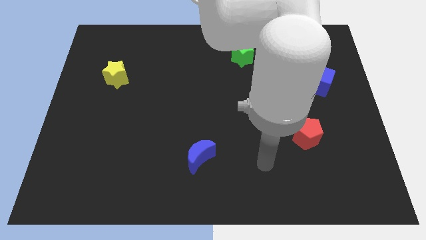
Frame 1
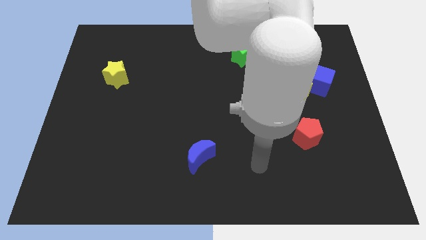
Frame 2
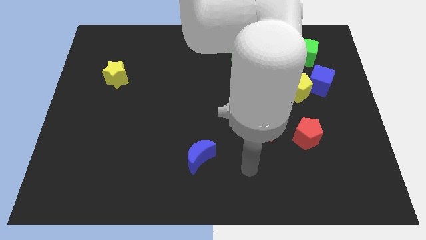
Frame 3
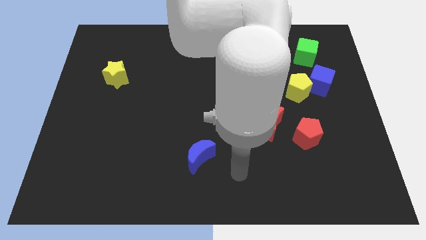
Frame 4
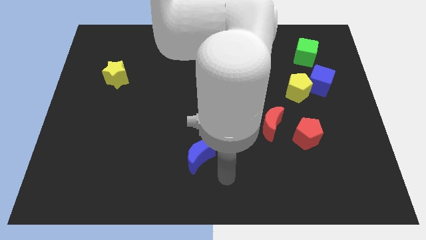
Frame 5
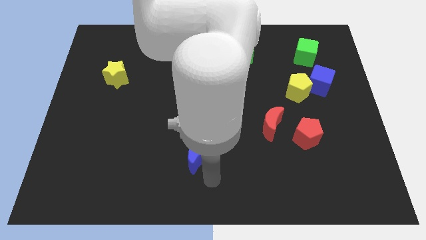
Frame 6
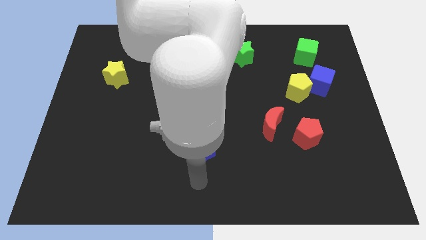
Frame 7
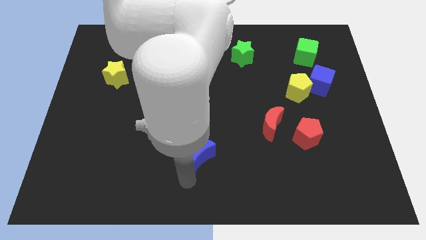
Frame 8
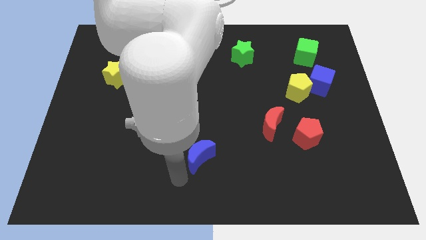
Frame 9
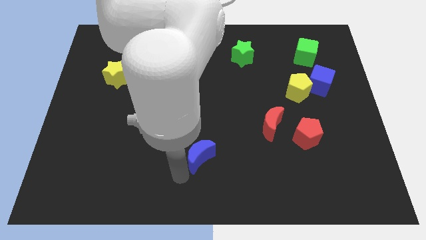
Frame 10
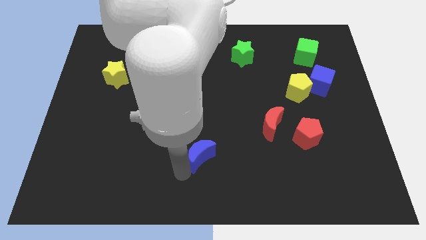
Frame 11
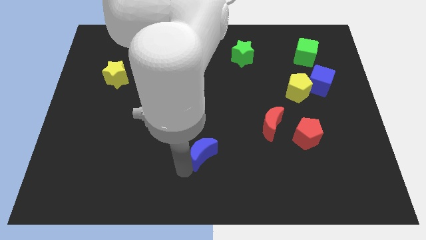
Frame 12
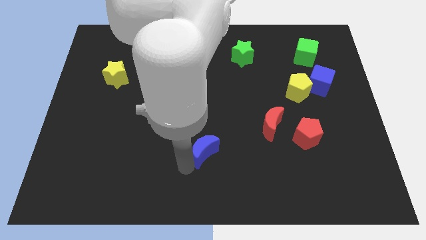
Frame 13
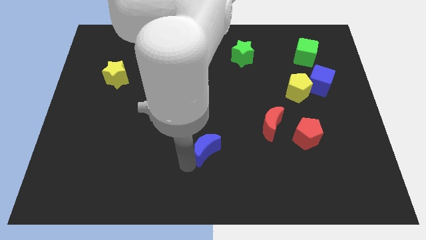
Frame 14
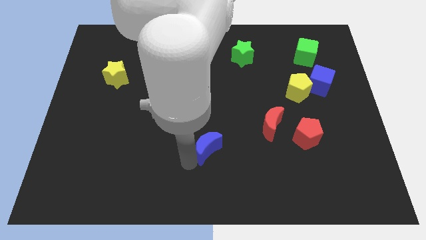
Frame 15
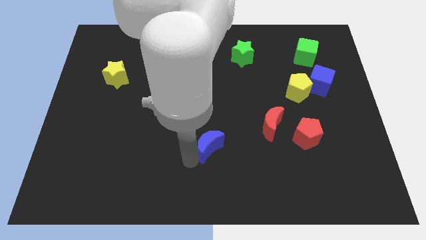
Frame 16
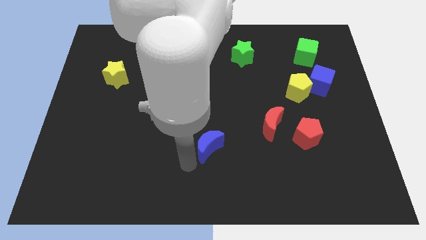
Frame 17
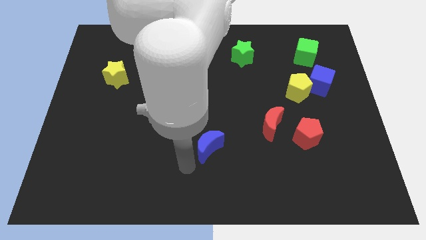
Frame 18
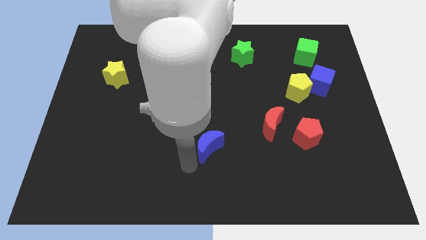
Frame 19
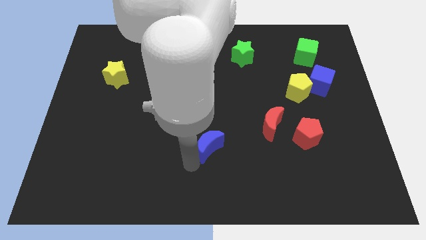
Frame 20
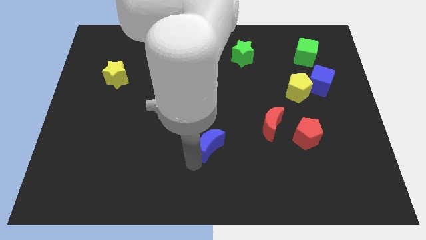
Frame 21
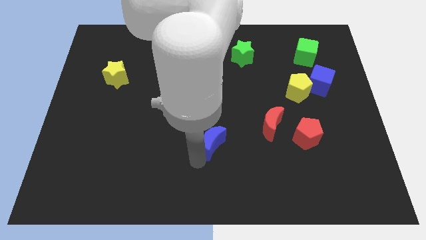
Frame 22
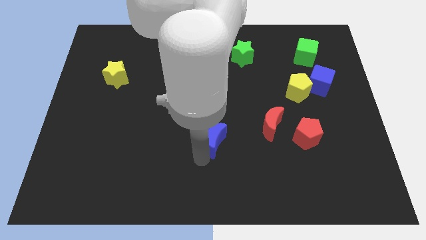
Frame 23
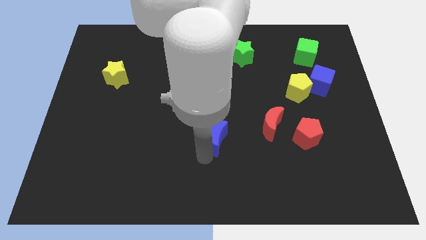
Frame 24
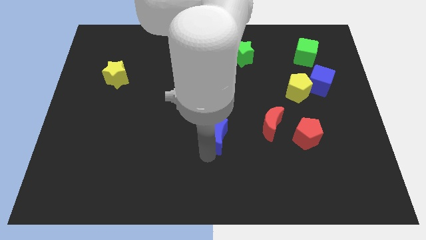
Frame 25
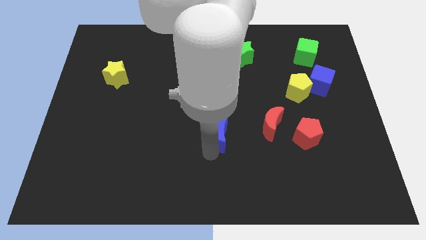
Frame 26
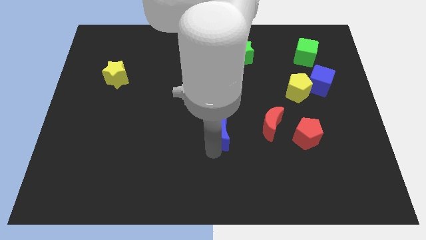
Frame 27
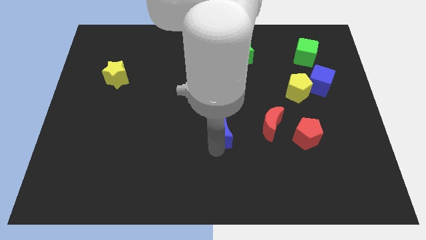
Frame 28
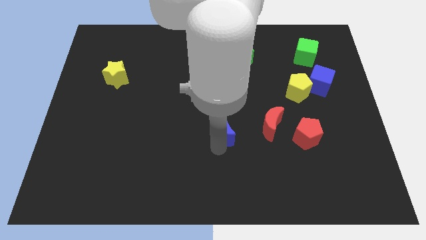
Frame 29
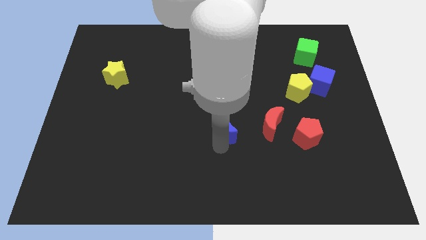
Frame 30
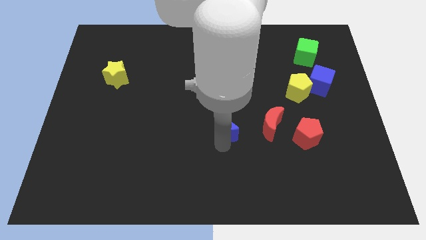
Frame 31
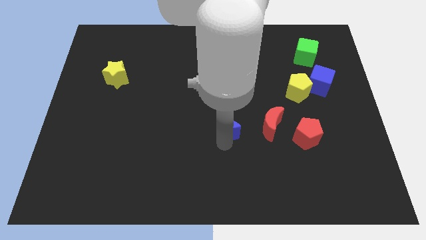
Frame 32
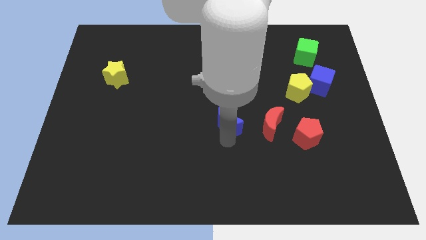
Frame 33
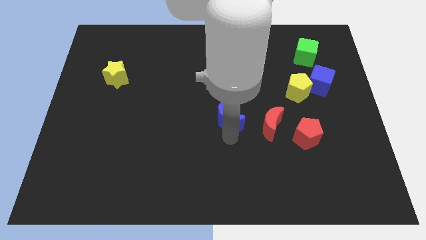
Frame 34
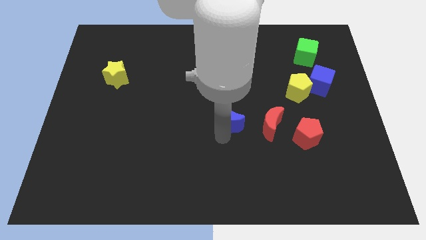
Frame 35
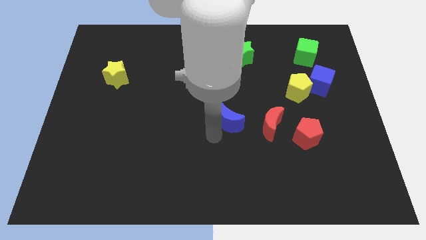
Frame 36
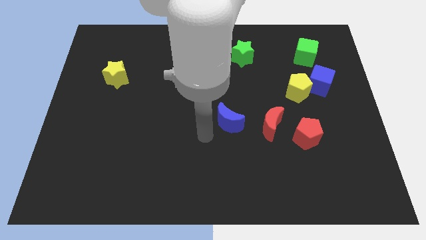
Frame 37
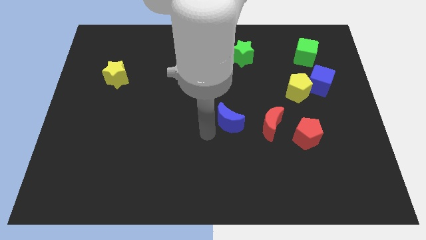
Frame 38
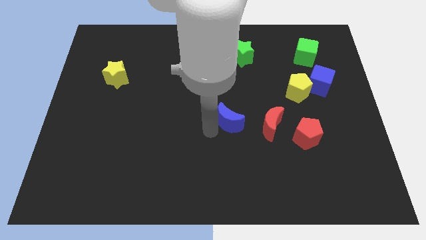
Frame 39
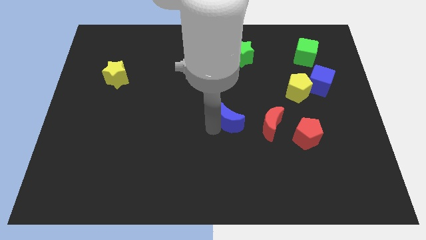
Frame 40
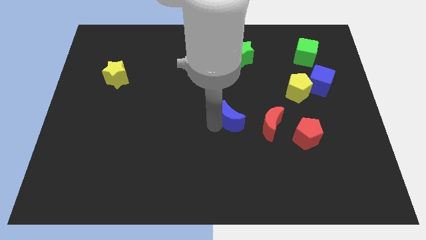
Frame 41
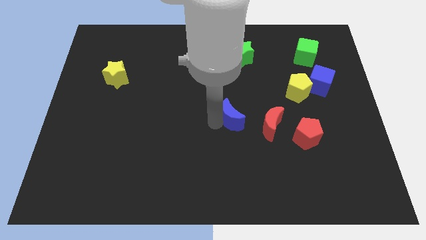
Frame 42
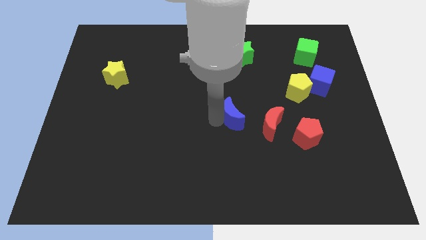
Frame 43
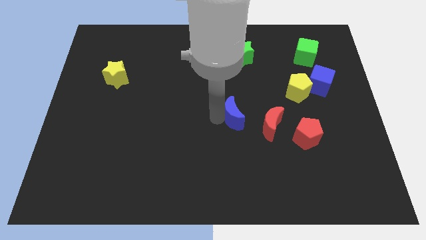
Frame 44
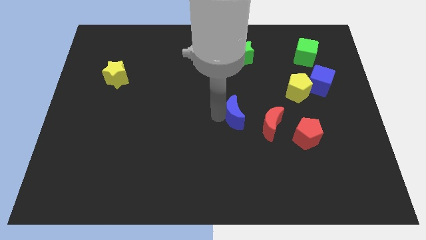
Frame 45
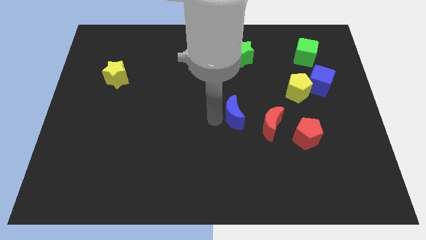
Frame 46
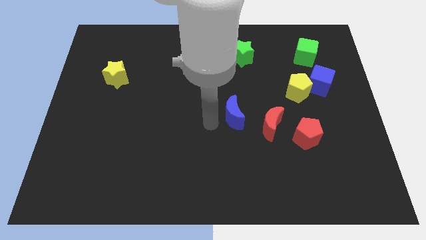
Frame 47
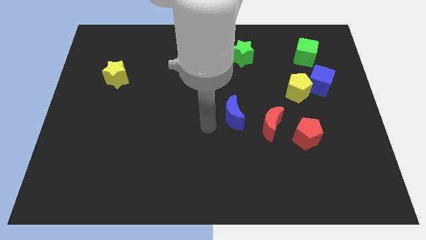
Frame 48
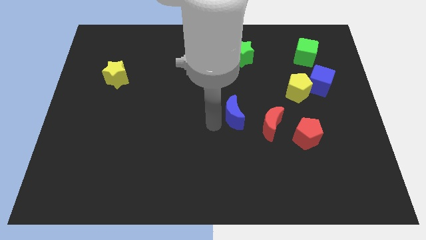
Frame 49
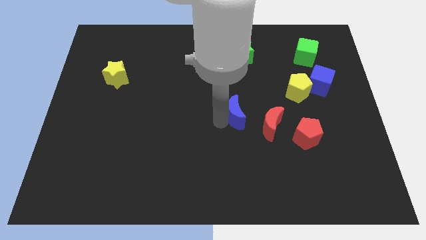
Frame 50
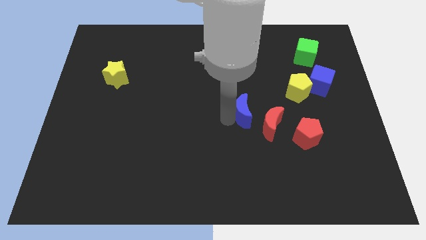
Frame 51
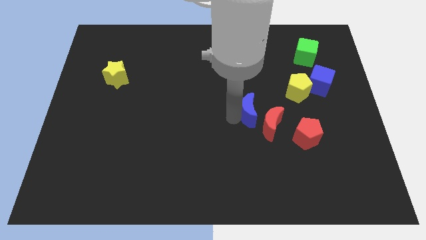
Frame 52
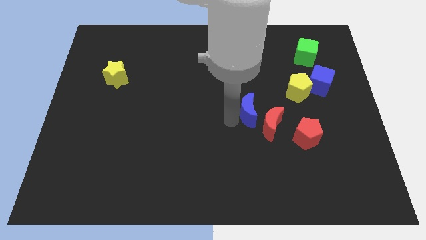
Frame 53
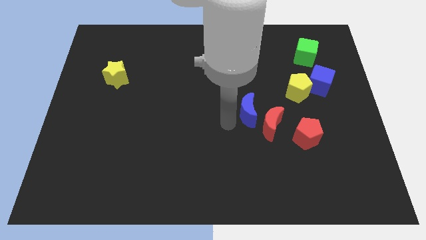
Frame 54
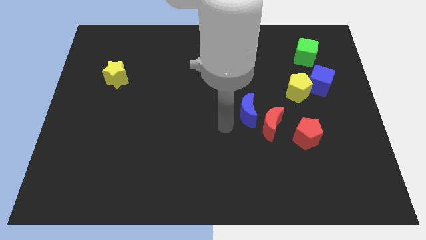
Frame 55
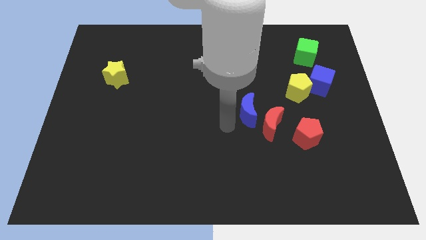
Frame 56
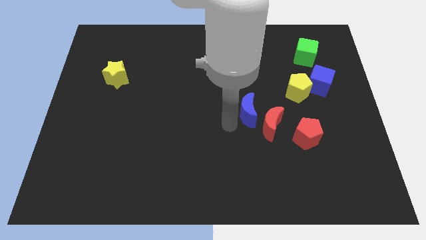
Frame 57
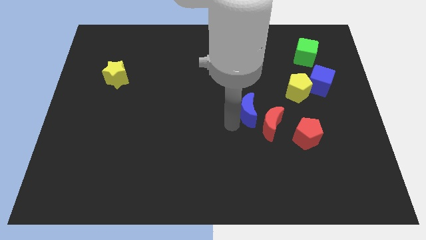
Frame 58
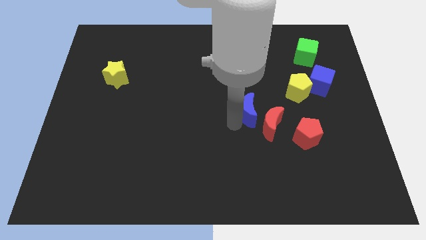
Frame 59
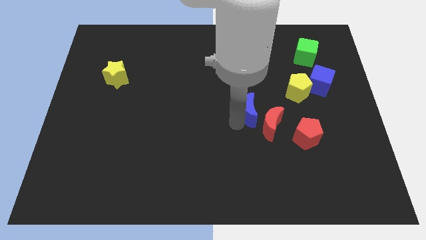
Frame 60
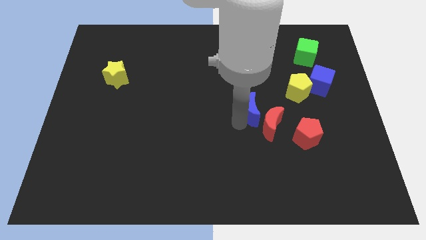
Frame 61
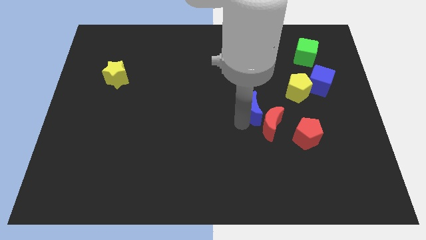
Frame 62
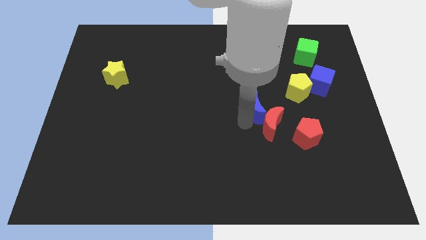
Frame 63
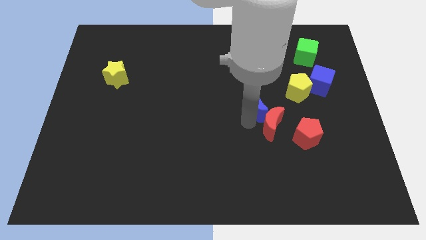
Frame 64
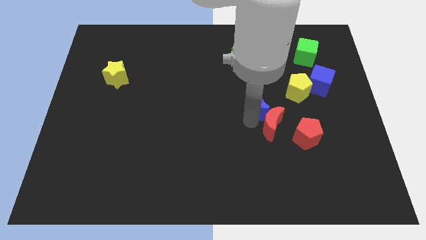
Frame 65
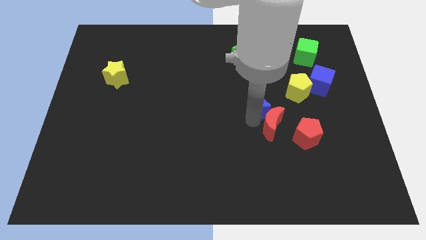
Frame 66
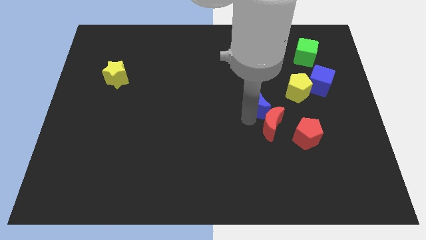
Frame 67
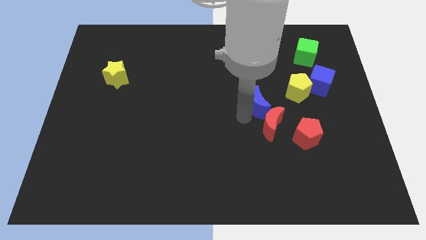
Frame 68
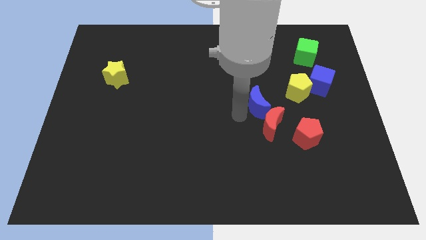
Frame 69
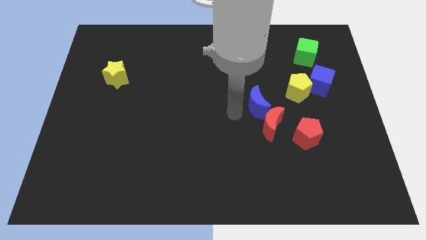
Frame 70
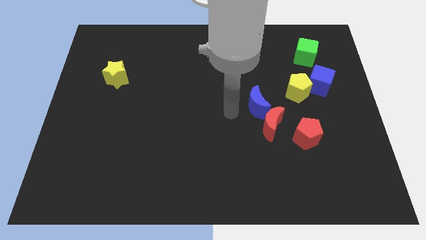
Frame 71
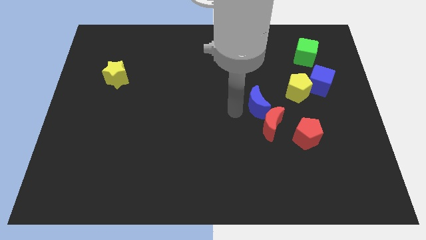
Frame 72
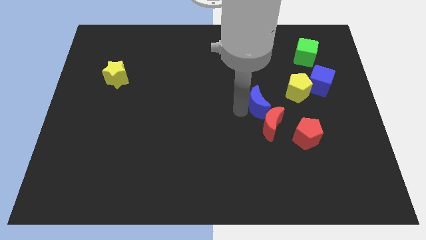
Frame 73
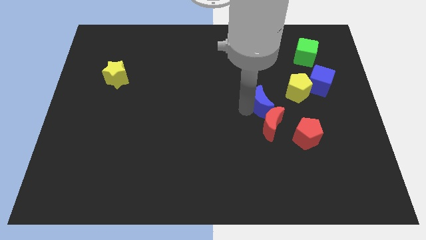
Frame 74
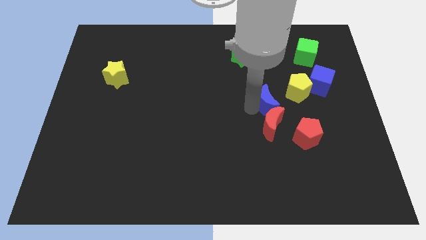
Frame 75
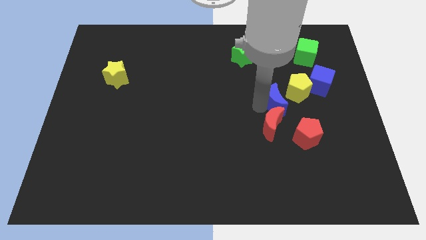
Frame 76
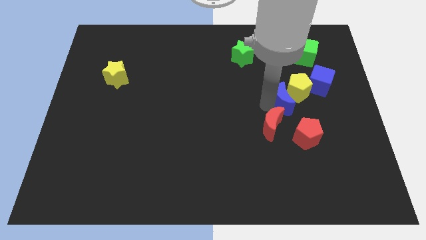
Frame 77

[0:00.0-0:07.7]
move the blue moon diagonally down and to the left of the blue cube
